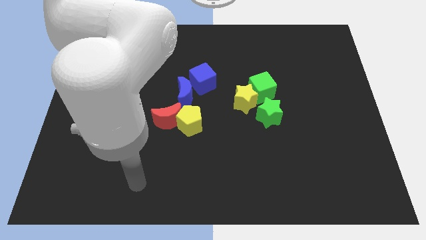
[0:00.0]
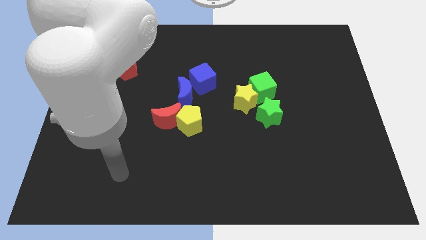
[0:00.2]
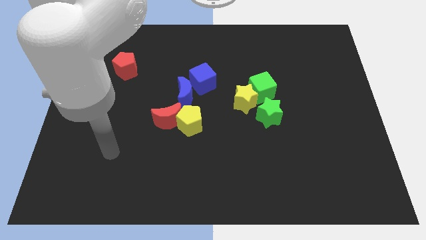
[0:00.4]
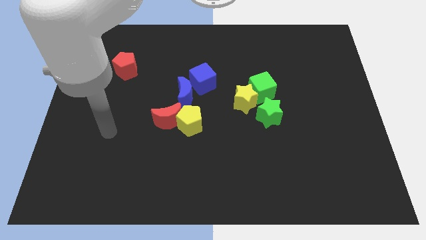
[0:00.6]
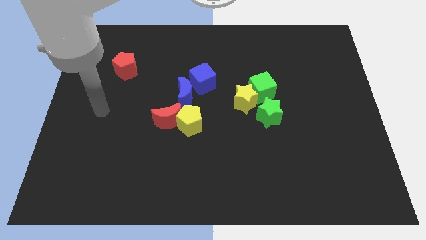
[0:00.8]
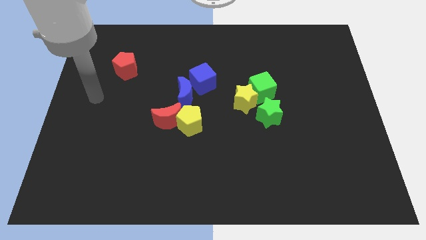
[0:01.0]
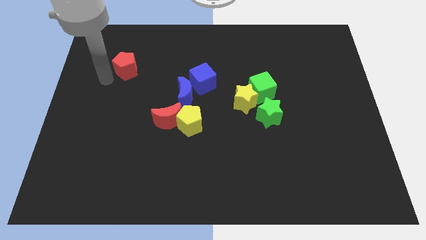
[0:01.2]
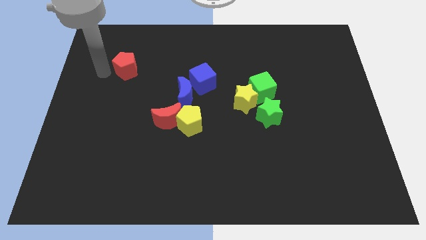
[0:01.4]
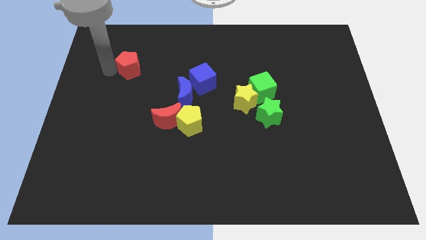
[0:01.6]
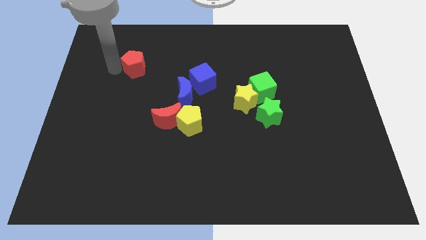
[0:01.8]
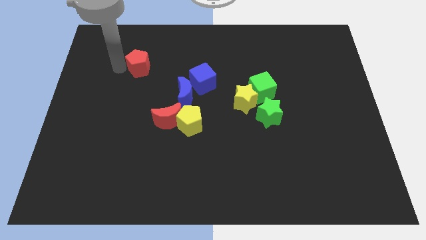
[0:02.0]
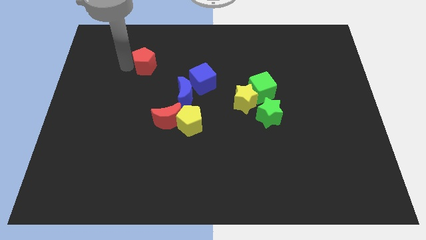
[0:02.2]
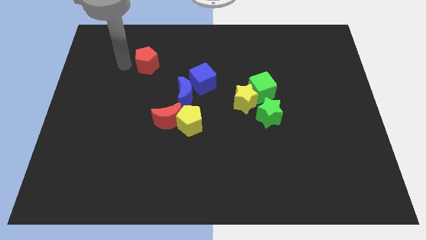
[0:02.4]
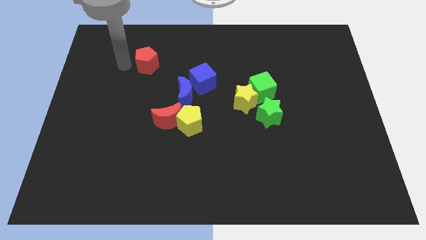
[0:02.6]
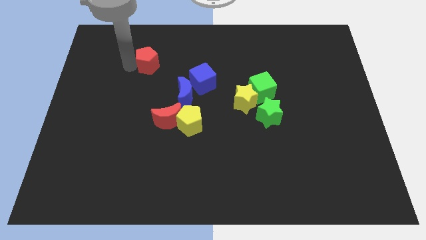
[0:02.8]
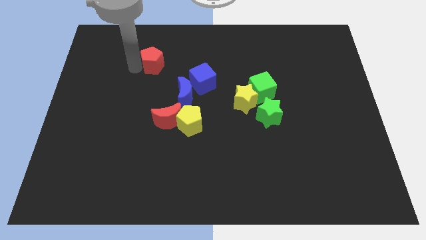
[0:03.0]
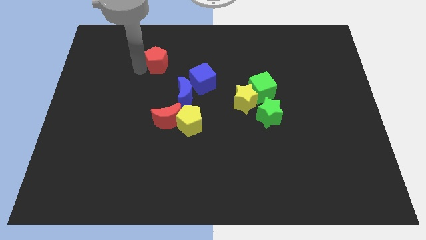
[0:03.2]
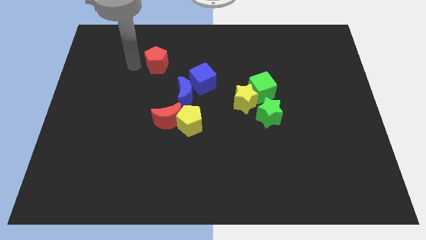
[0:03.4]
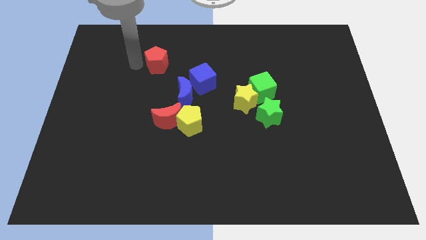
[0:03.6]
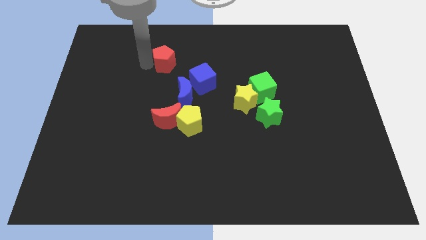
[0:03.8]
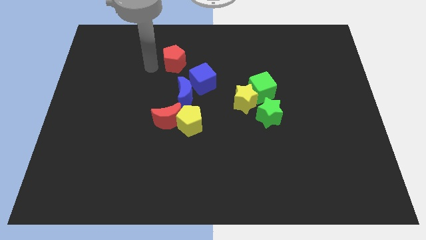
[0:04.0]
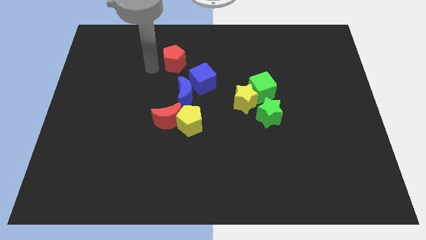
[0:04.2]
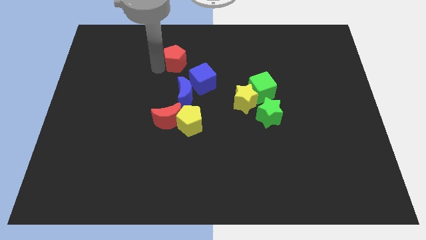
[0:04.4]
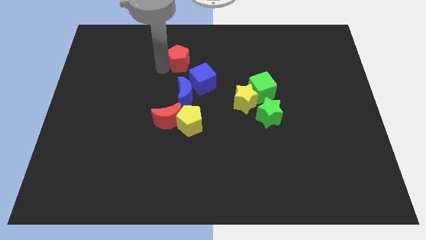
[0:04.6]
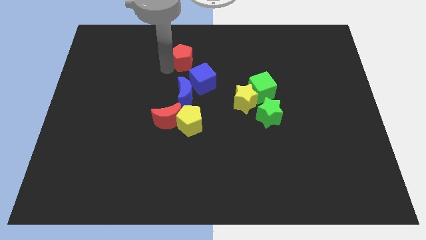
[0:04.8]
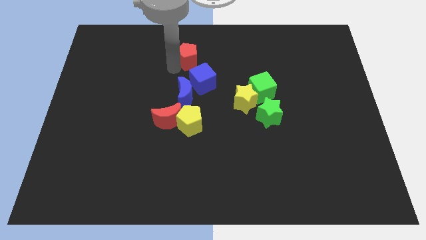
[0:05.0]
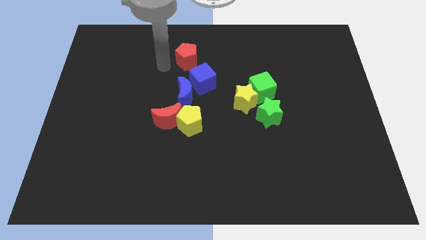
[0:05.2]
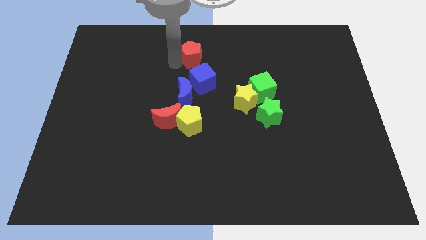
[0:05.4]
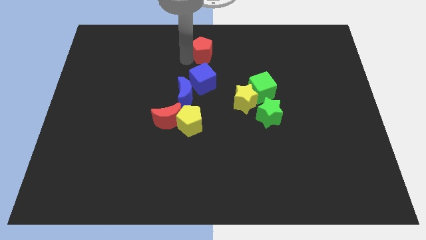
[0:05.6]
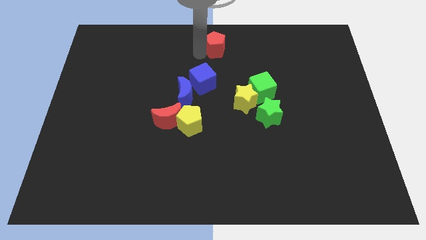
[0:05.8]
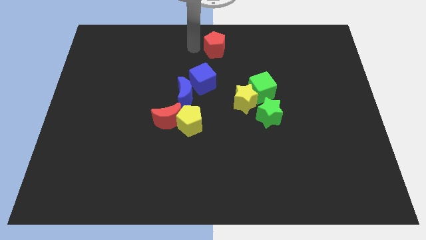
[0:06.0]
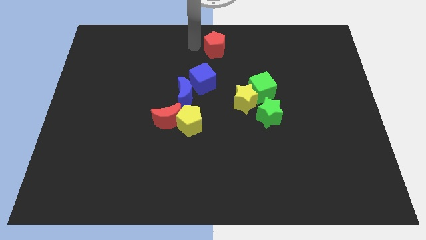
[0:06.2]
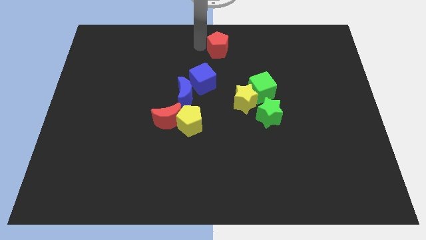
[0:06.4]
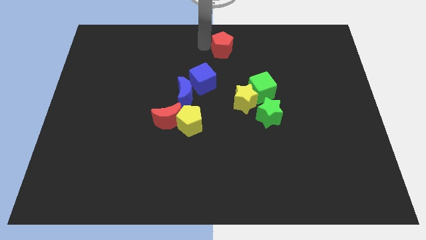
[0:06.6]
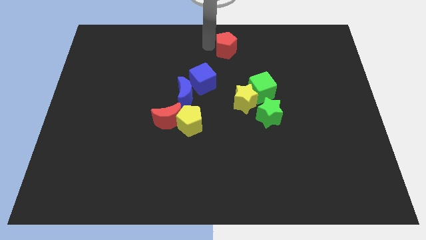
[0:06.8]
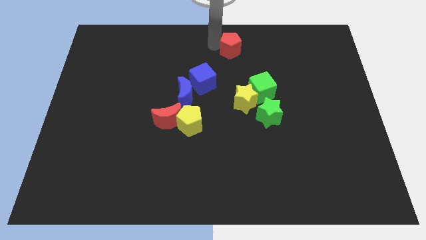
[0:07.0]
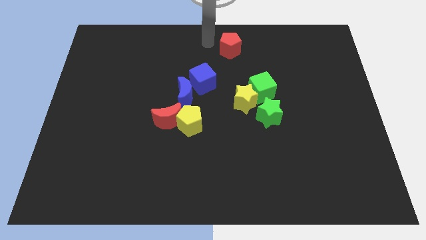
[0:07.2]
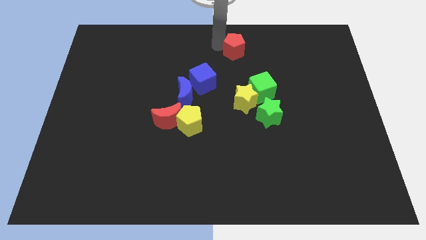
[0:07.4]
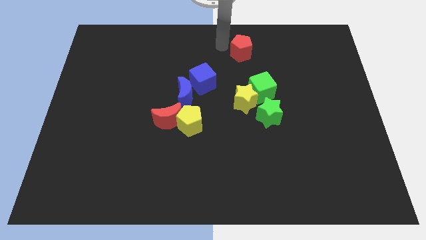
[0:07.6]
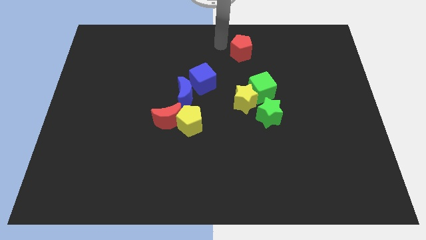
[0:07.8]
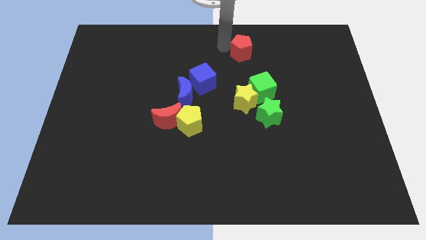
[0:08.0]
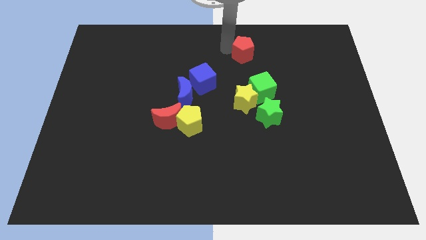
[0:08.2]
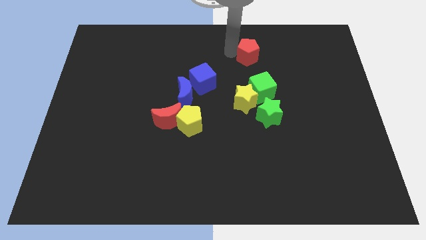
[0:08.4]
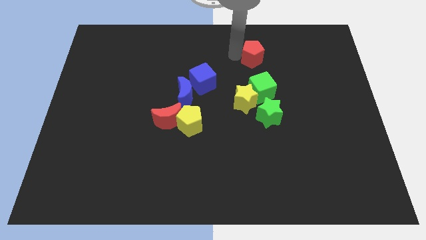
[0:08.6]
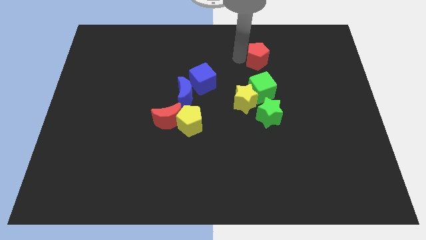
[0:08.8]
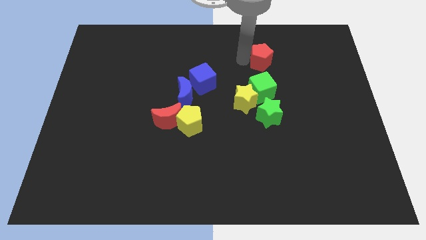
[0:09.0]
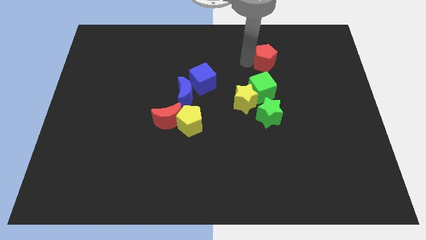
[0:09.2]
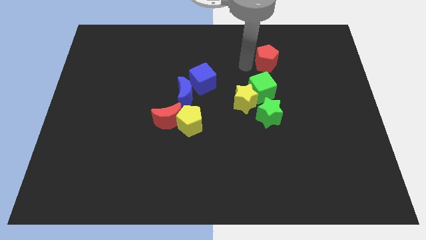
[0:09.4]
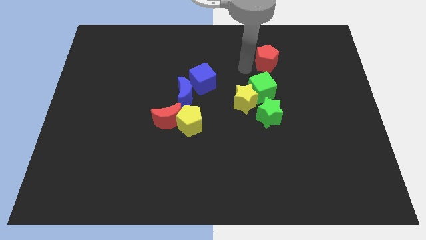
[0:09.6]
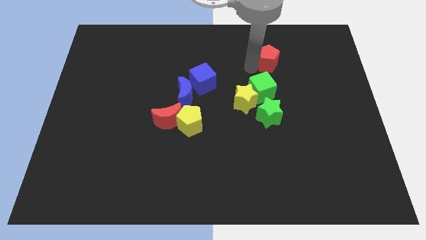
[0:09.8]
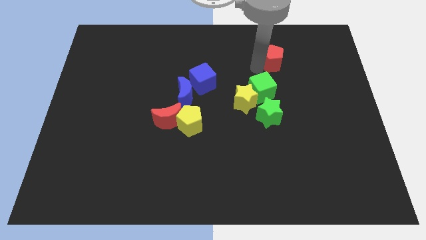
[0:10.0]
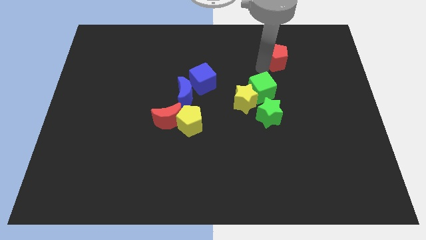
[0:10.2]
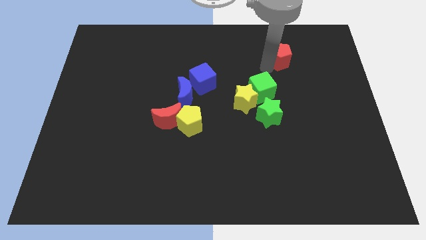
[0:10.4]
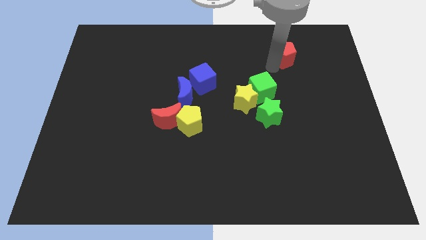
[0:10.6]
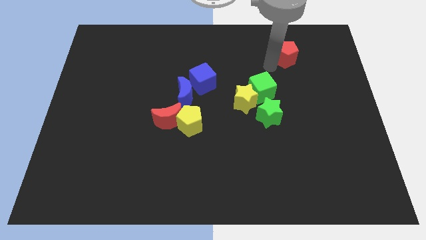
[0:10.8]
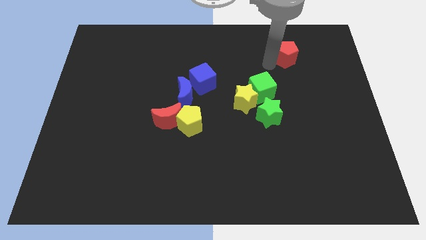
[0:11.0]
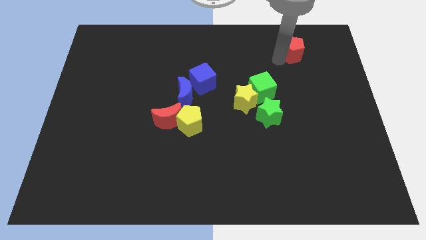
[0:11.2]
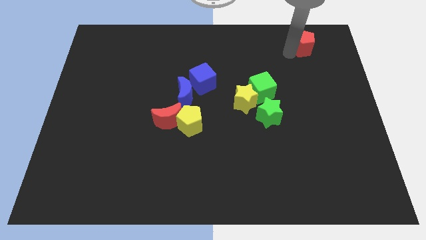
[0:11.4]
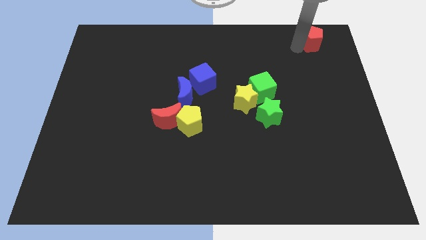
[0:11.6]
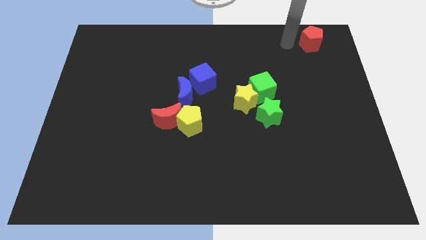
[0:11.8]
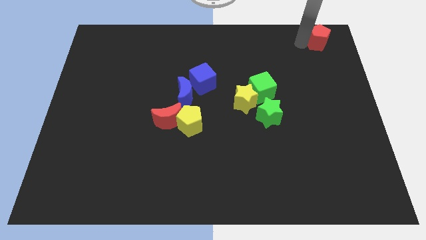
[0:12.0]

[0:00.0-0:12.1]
slide the red pentagon to the top right of the board

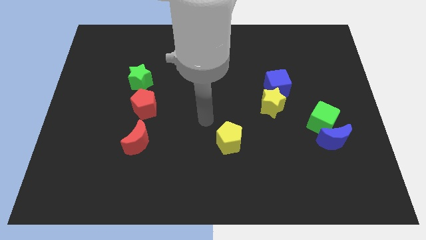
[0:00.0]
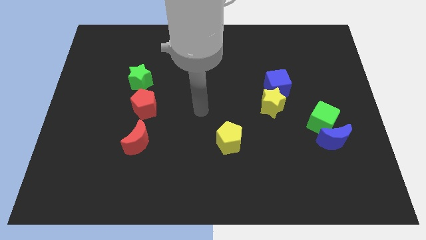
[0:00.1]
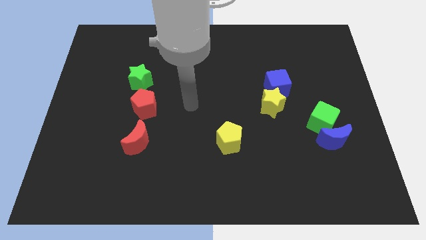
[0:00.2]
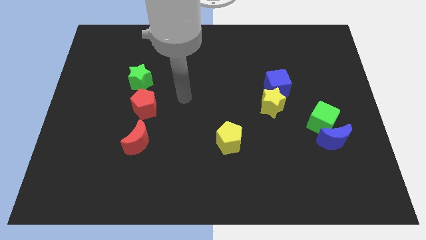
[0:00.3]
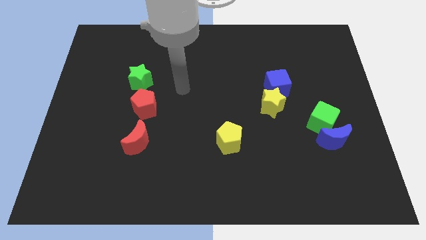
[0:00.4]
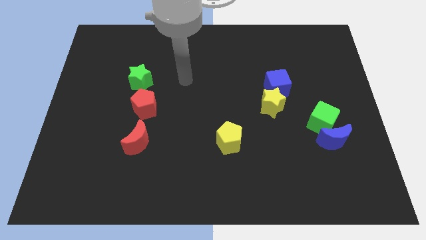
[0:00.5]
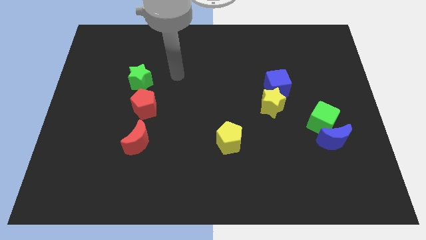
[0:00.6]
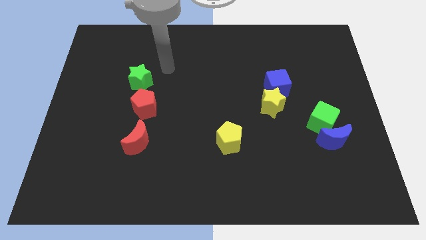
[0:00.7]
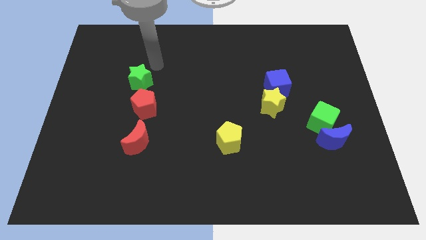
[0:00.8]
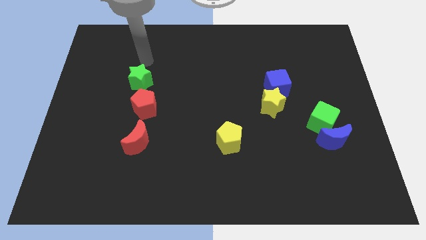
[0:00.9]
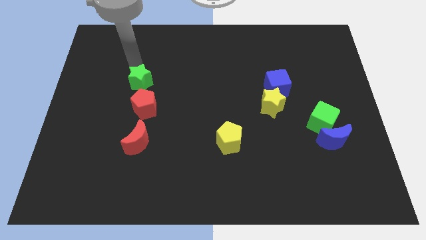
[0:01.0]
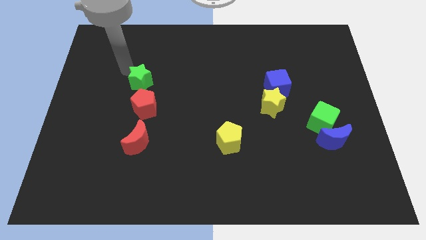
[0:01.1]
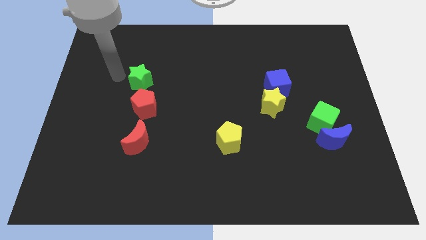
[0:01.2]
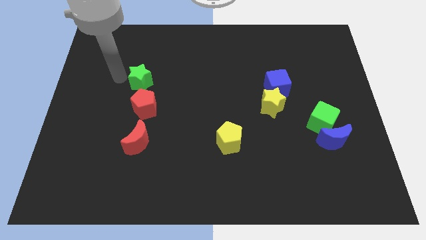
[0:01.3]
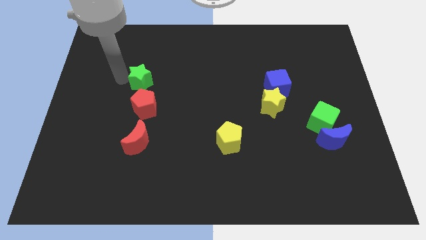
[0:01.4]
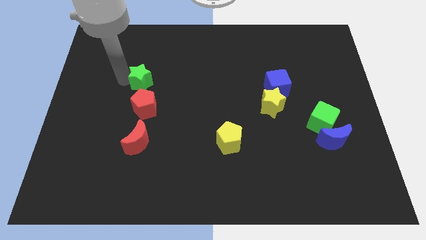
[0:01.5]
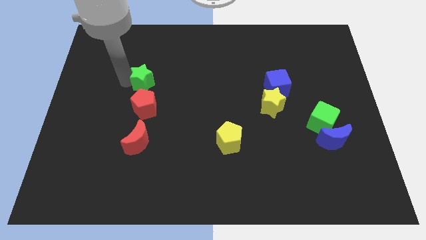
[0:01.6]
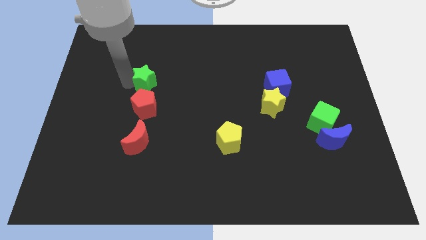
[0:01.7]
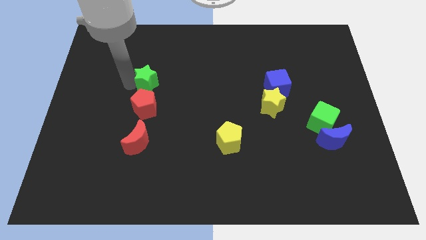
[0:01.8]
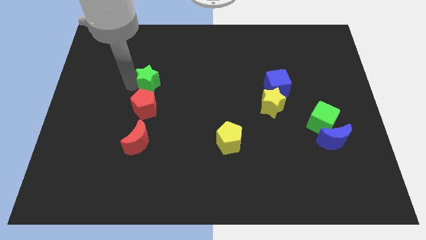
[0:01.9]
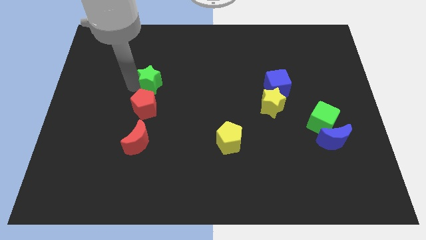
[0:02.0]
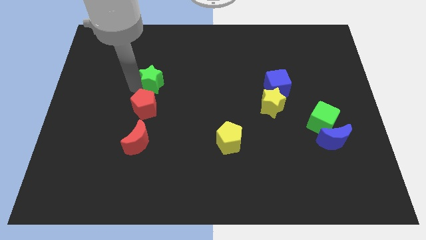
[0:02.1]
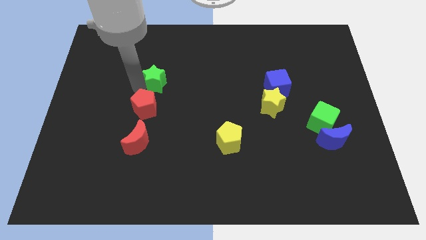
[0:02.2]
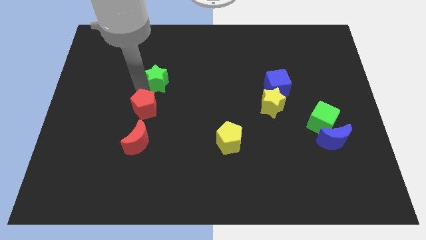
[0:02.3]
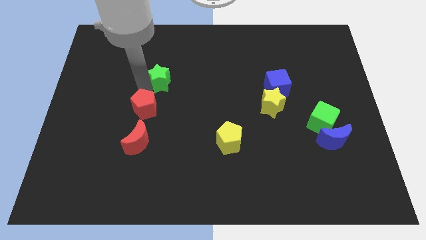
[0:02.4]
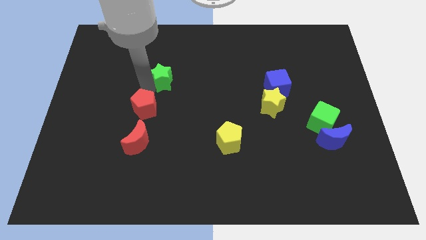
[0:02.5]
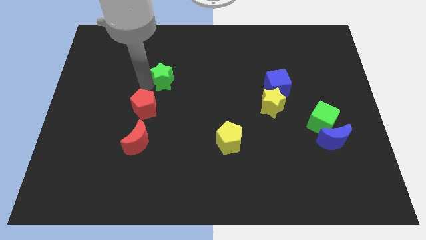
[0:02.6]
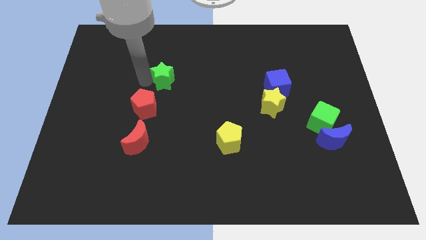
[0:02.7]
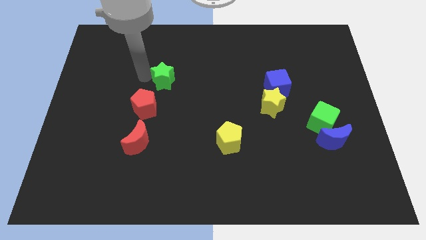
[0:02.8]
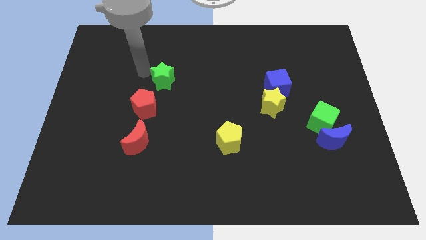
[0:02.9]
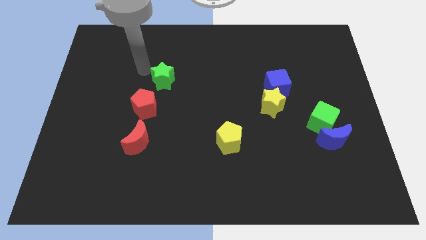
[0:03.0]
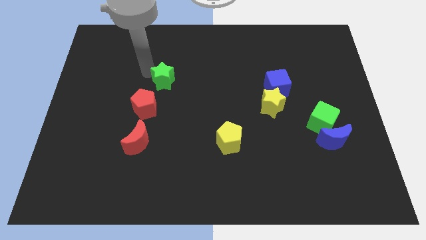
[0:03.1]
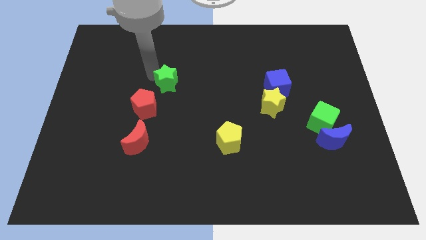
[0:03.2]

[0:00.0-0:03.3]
put the green star to the center of the board
